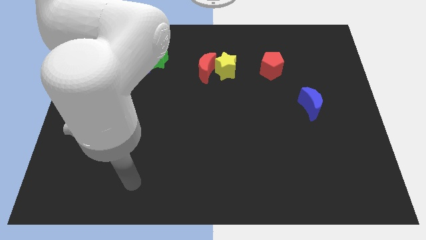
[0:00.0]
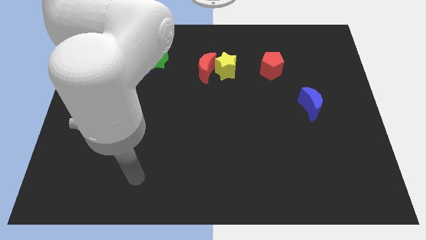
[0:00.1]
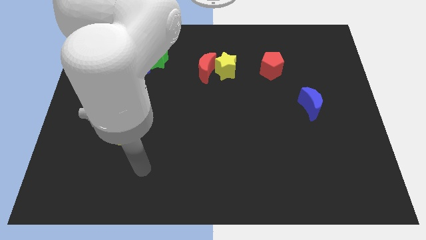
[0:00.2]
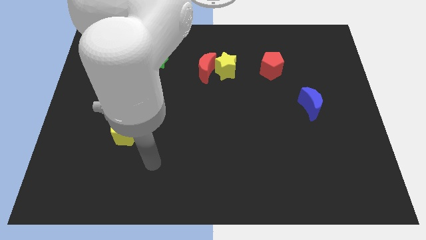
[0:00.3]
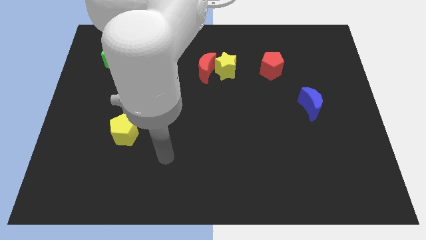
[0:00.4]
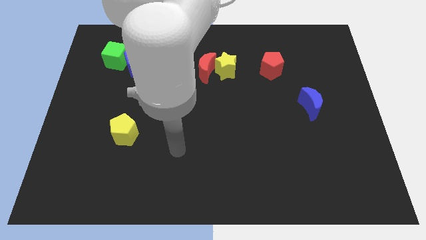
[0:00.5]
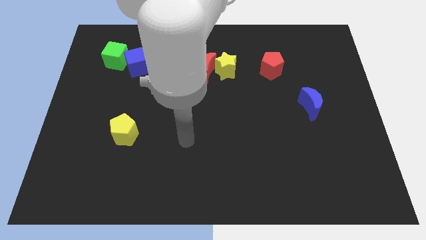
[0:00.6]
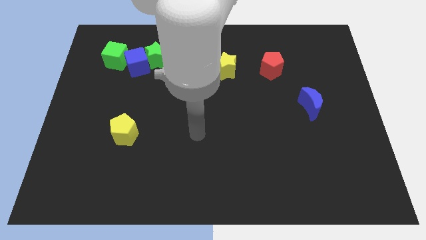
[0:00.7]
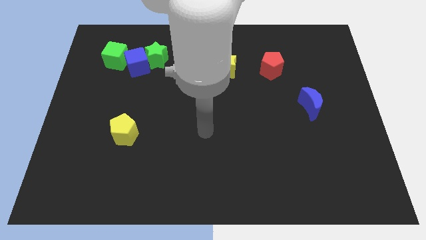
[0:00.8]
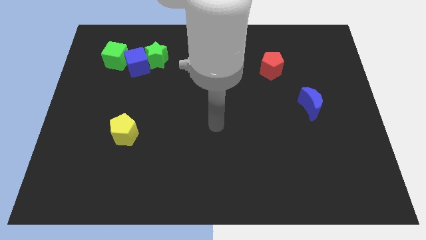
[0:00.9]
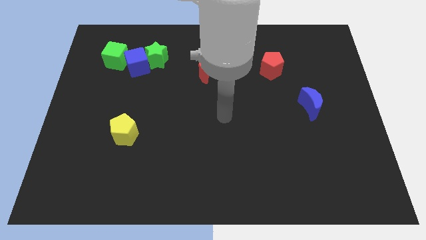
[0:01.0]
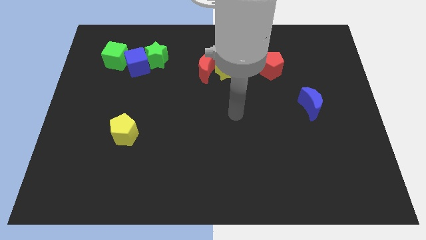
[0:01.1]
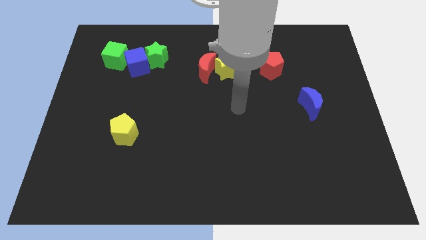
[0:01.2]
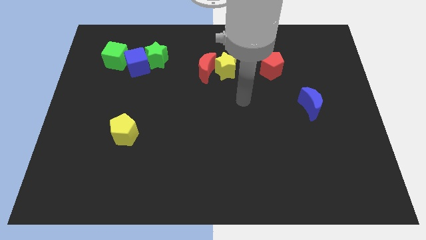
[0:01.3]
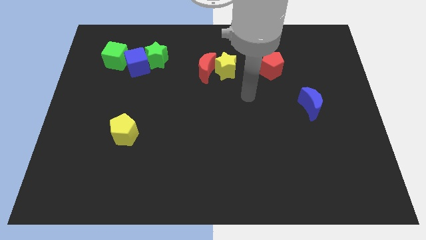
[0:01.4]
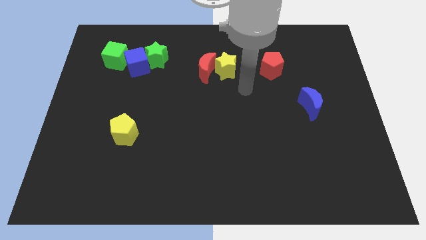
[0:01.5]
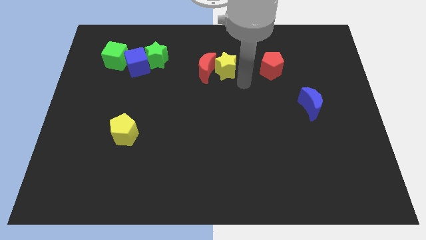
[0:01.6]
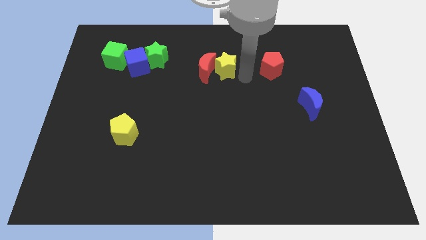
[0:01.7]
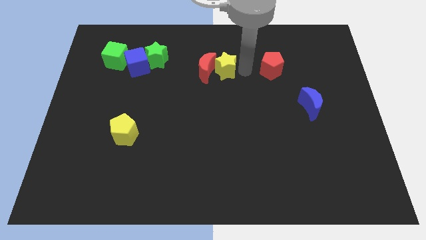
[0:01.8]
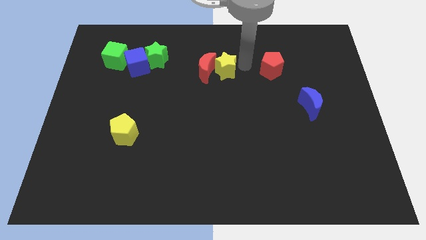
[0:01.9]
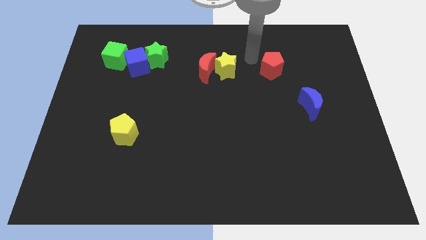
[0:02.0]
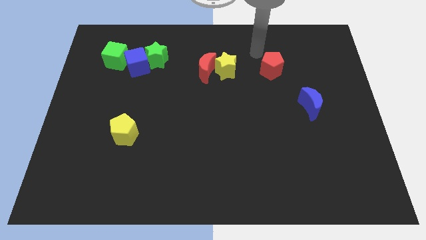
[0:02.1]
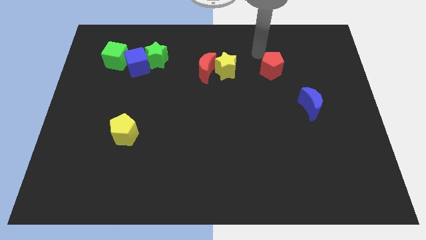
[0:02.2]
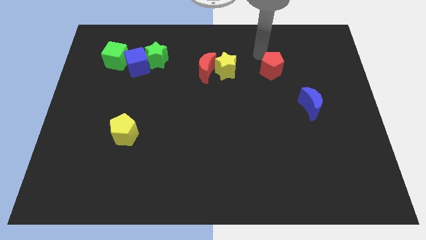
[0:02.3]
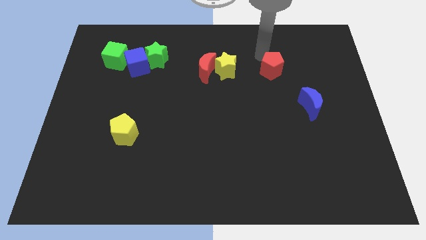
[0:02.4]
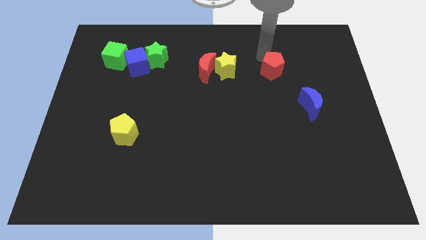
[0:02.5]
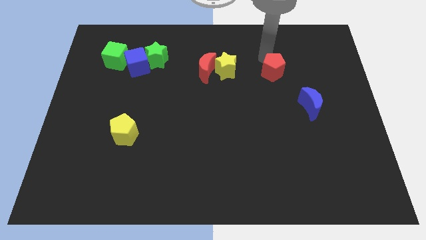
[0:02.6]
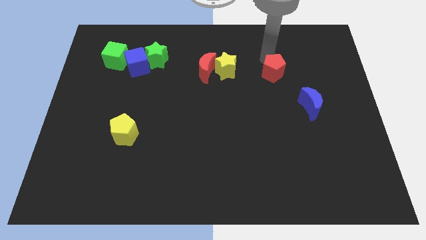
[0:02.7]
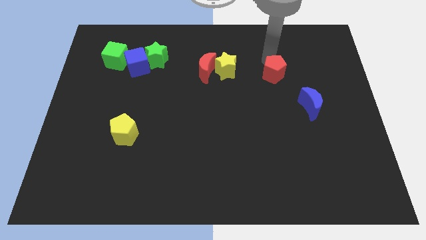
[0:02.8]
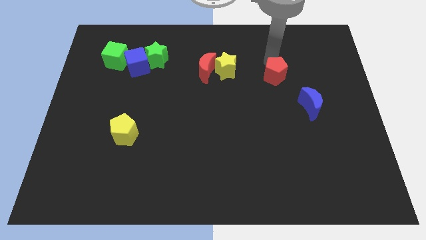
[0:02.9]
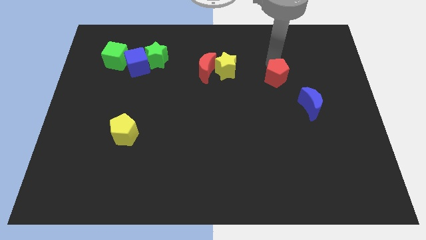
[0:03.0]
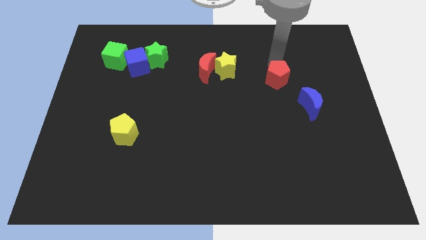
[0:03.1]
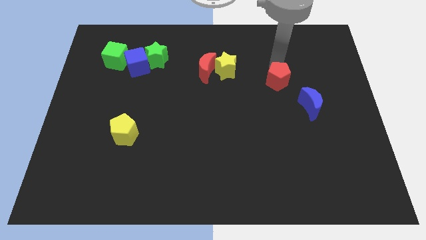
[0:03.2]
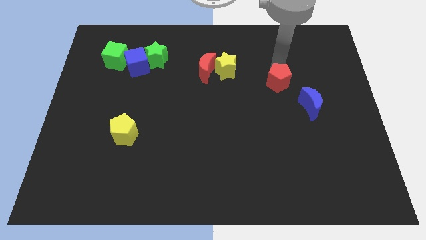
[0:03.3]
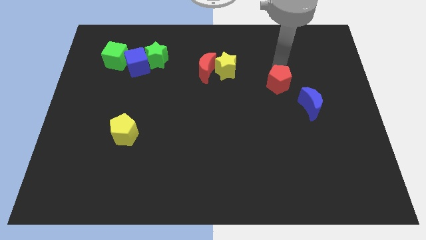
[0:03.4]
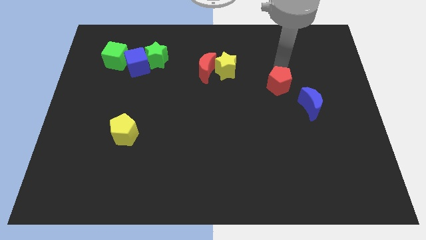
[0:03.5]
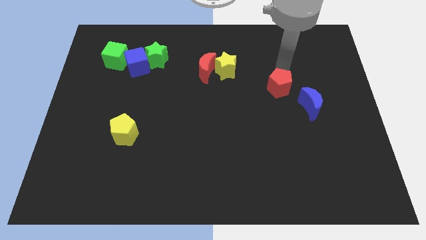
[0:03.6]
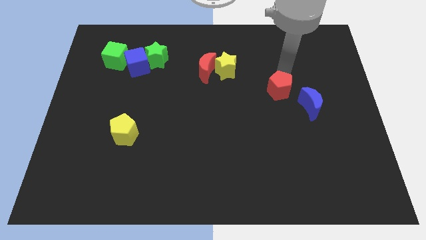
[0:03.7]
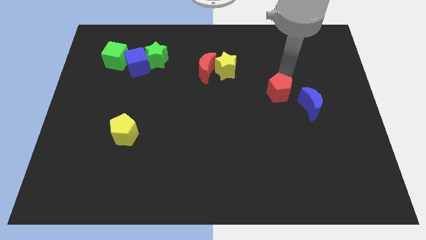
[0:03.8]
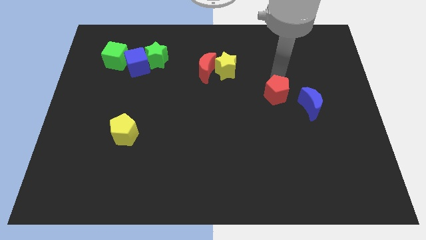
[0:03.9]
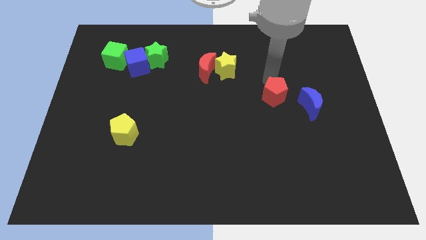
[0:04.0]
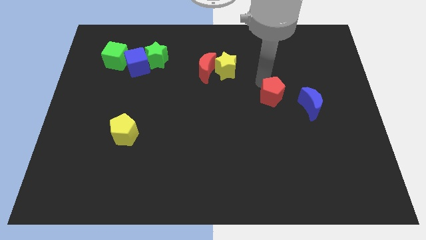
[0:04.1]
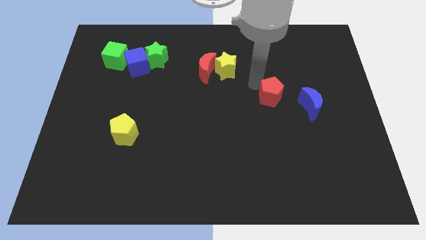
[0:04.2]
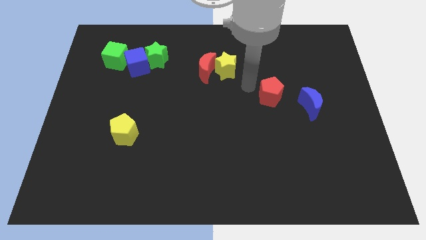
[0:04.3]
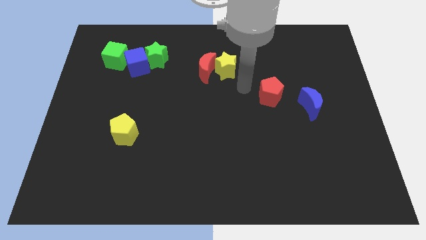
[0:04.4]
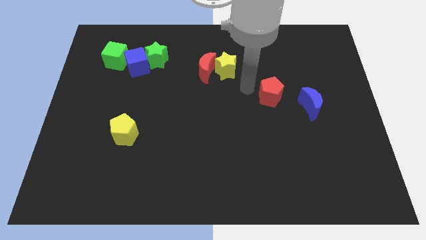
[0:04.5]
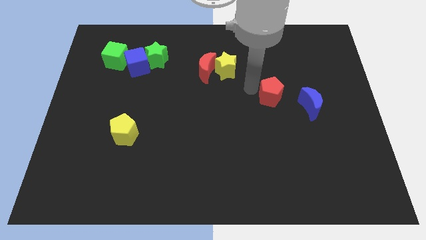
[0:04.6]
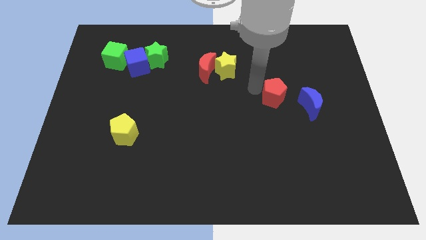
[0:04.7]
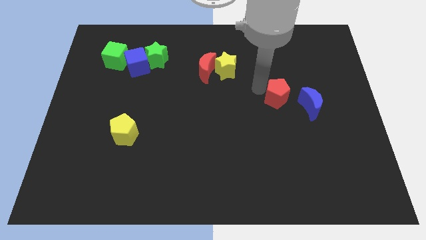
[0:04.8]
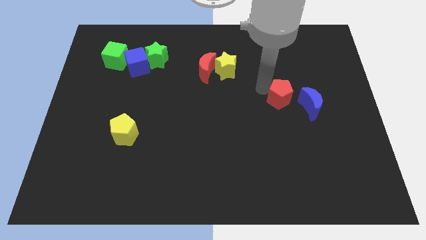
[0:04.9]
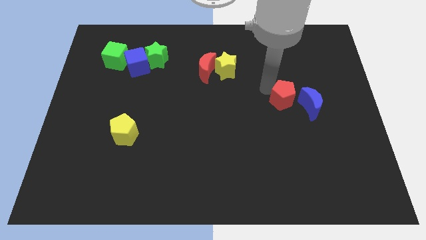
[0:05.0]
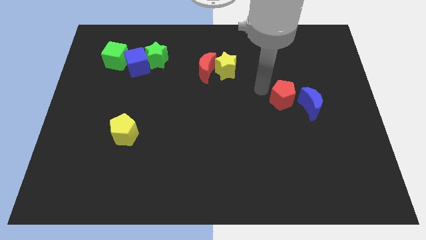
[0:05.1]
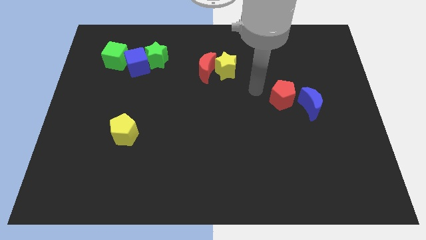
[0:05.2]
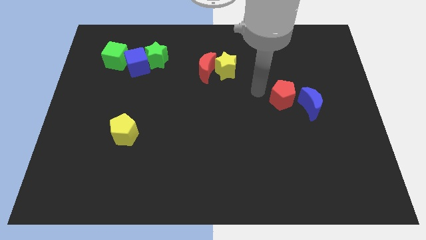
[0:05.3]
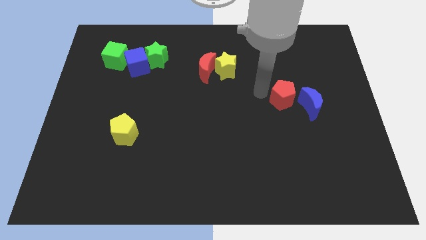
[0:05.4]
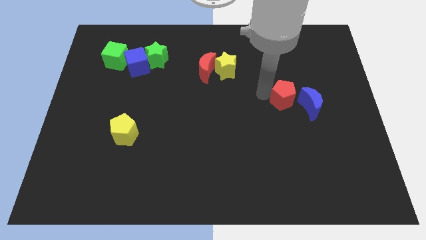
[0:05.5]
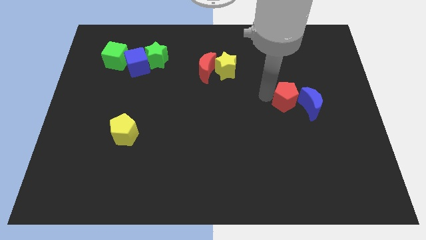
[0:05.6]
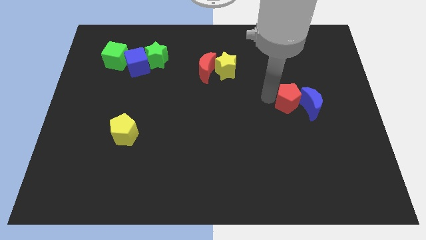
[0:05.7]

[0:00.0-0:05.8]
push the red pentagon next to the blue moon

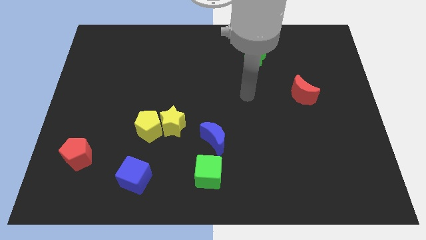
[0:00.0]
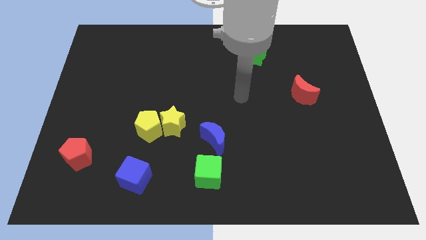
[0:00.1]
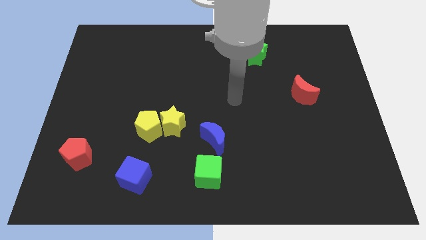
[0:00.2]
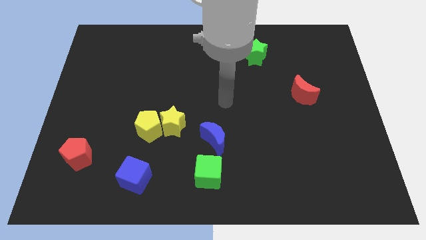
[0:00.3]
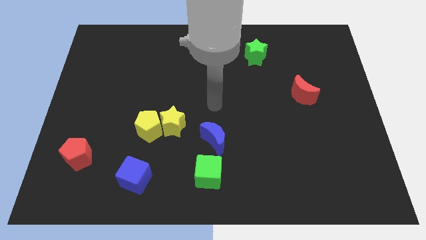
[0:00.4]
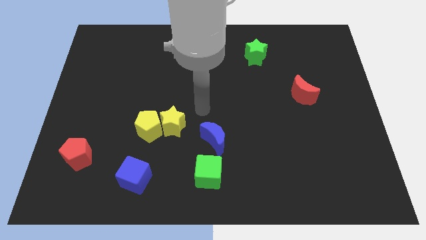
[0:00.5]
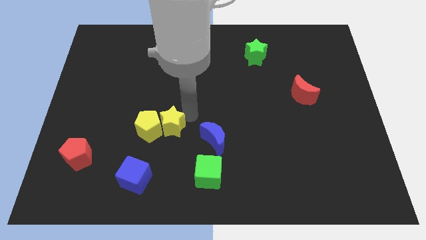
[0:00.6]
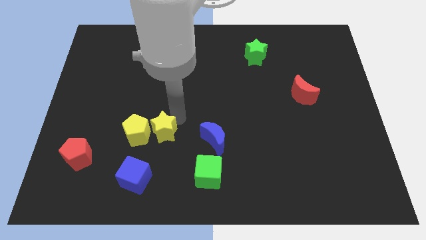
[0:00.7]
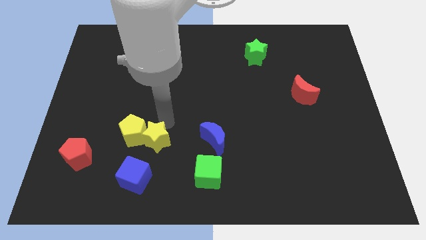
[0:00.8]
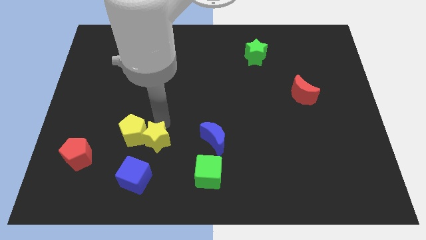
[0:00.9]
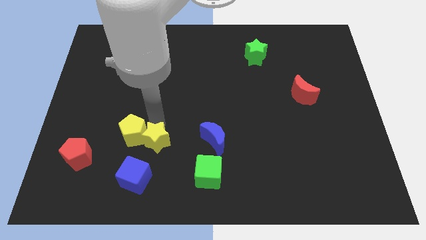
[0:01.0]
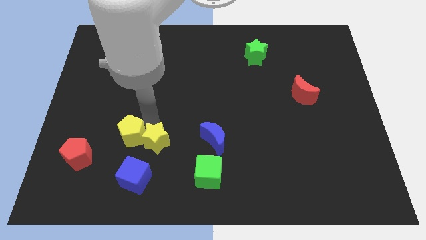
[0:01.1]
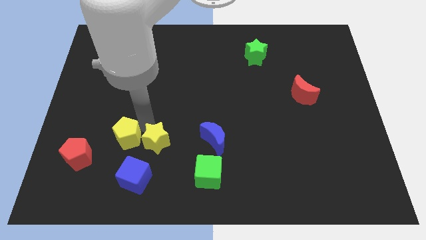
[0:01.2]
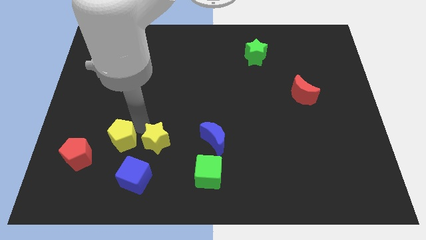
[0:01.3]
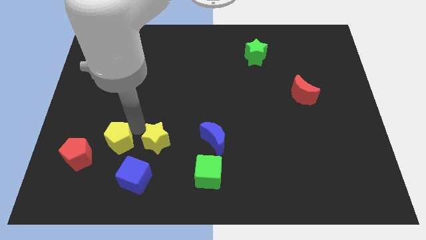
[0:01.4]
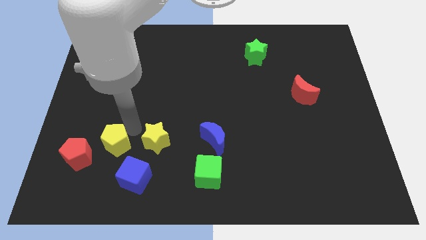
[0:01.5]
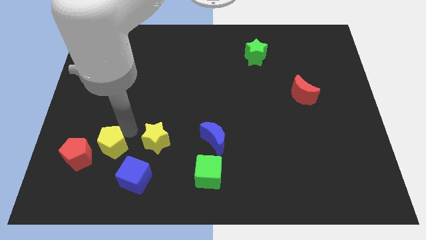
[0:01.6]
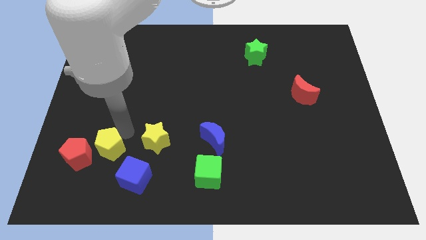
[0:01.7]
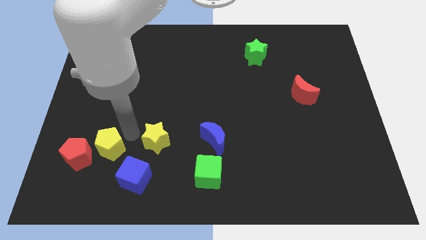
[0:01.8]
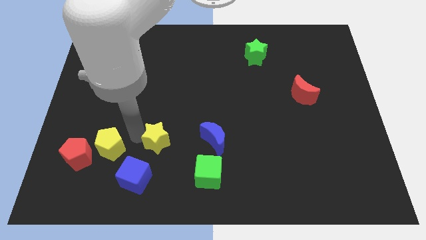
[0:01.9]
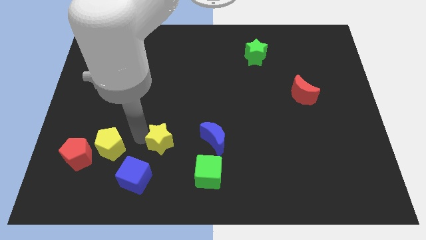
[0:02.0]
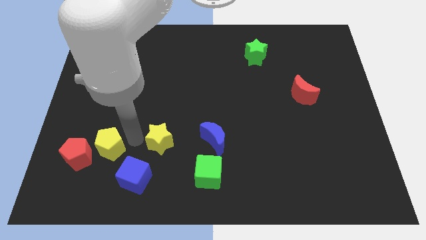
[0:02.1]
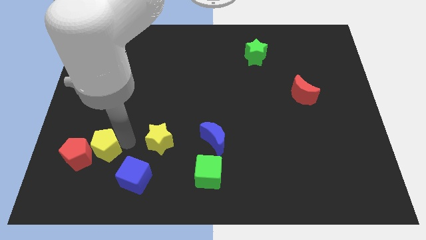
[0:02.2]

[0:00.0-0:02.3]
move the yellow pentagon close to the red pentagon
